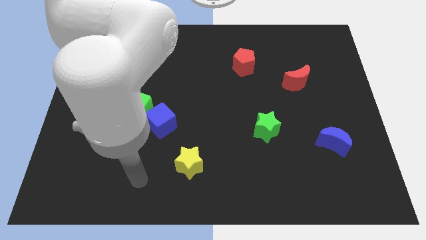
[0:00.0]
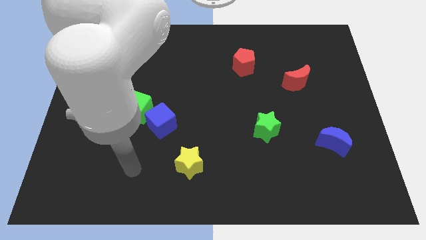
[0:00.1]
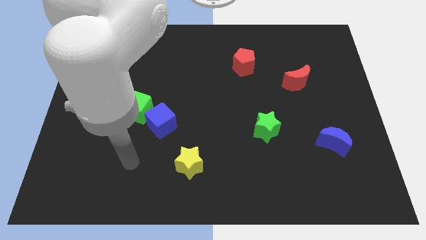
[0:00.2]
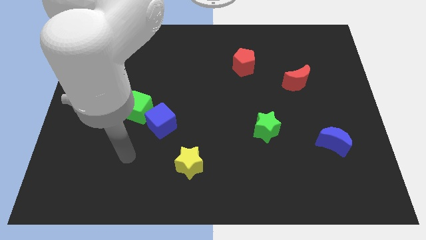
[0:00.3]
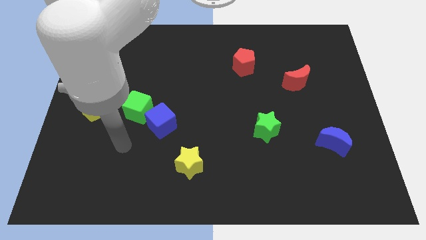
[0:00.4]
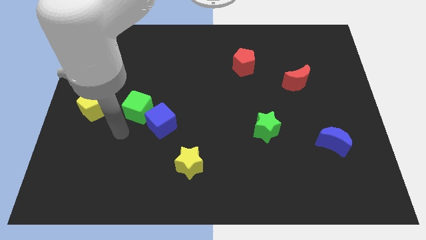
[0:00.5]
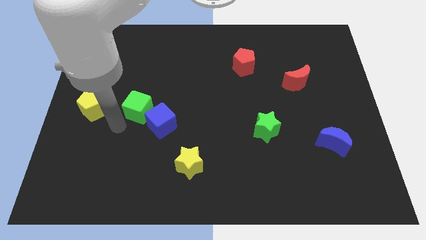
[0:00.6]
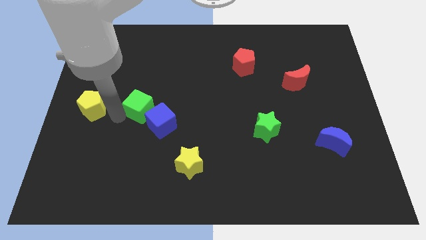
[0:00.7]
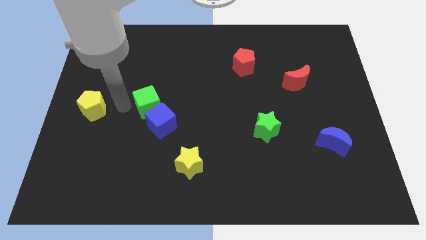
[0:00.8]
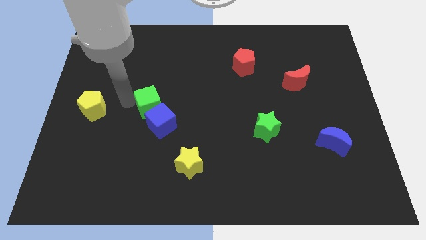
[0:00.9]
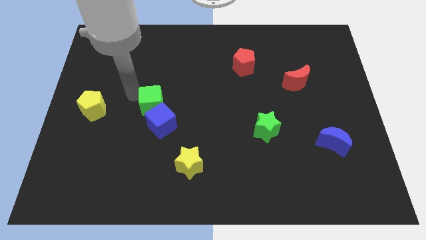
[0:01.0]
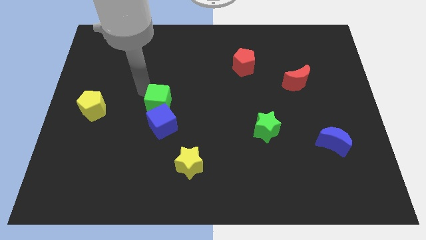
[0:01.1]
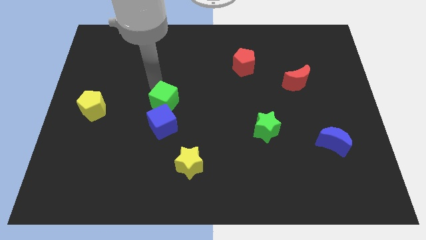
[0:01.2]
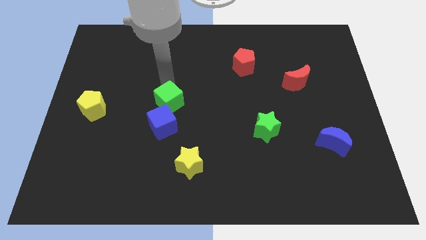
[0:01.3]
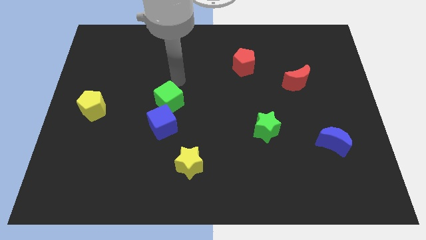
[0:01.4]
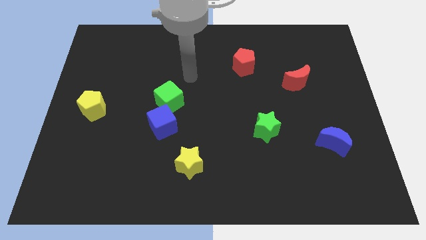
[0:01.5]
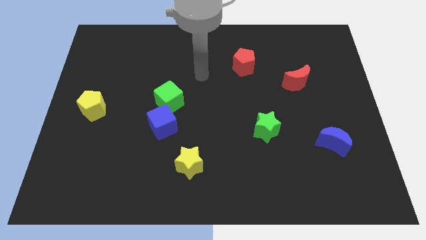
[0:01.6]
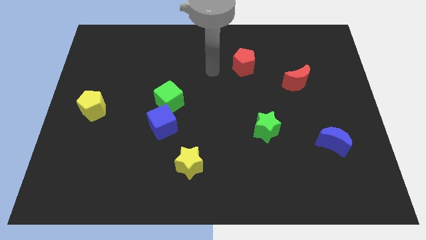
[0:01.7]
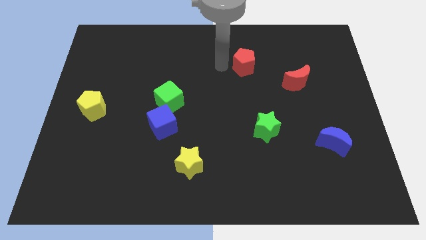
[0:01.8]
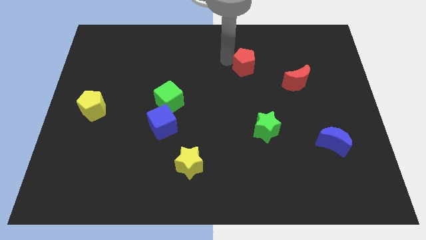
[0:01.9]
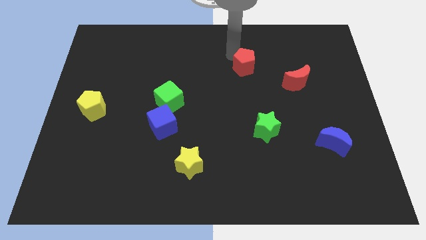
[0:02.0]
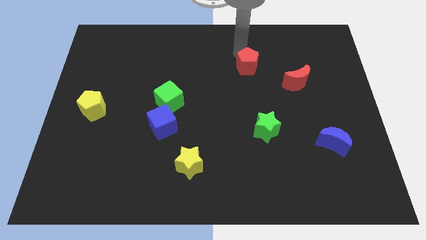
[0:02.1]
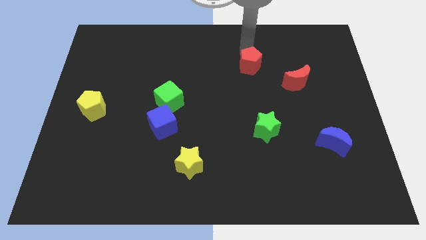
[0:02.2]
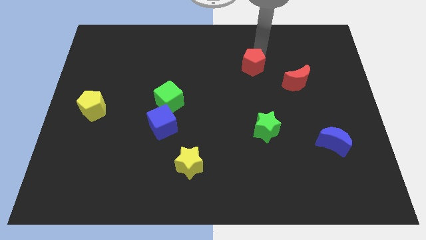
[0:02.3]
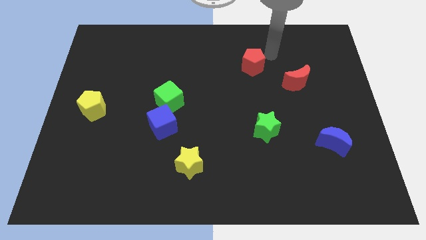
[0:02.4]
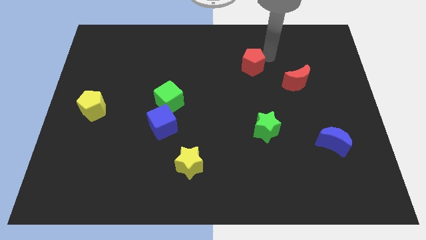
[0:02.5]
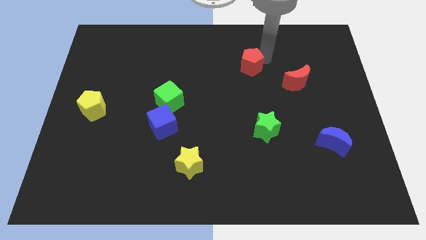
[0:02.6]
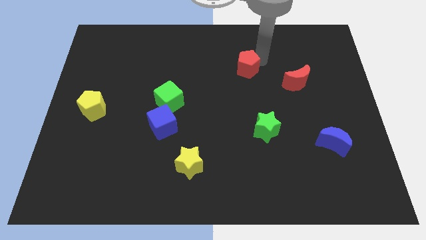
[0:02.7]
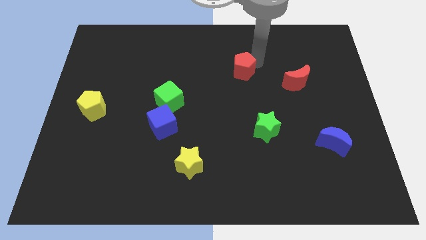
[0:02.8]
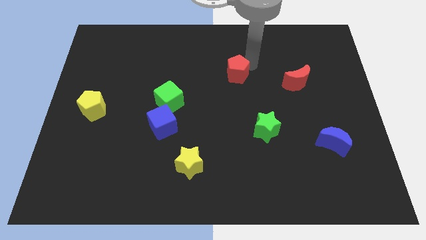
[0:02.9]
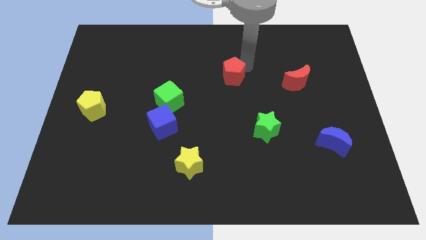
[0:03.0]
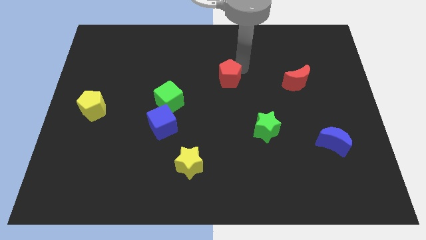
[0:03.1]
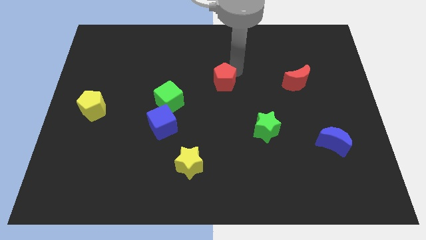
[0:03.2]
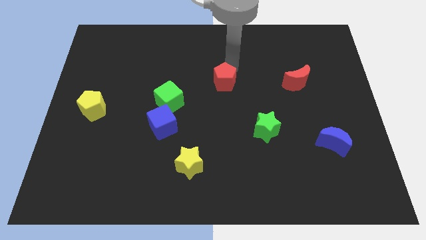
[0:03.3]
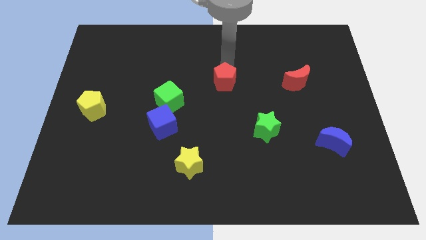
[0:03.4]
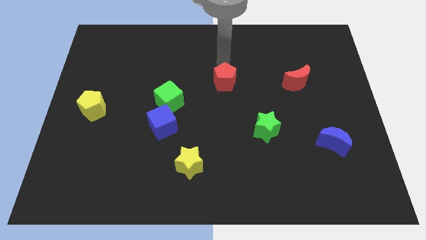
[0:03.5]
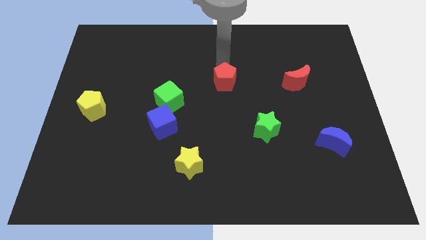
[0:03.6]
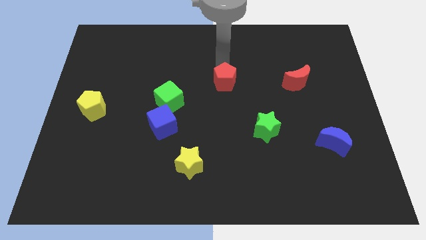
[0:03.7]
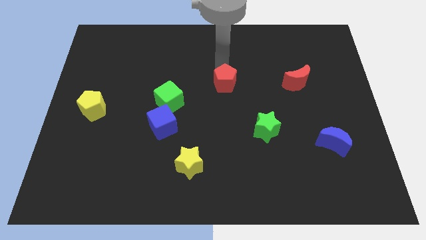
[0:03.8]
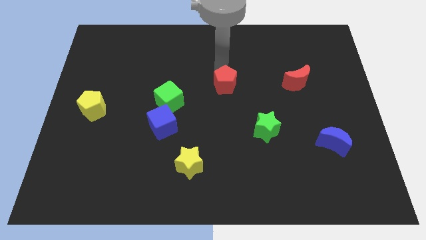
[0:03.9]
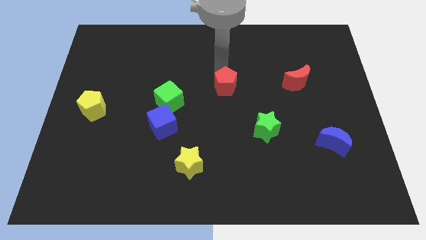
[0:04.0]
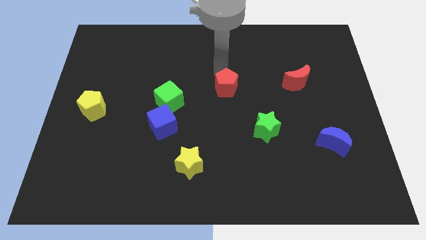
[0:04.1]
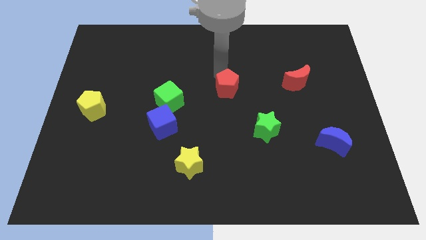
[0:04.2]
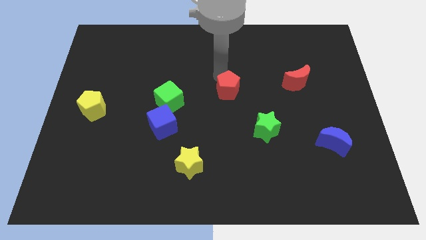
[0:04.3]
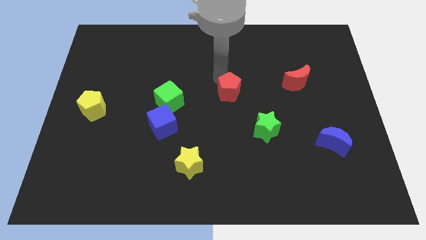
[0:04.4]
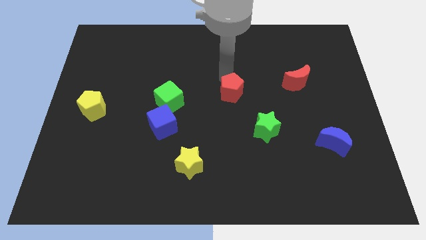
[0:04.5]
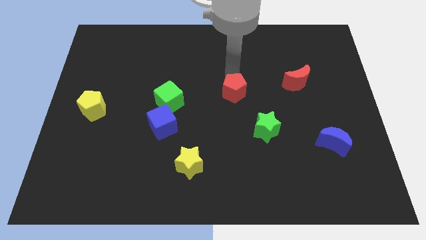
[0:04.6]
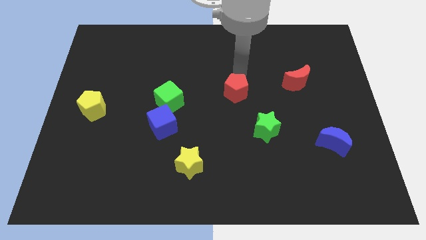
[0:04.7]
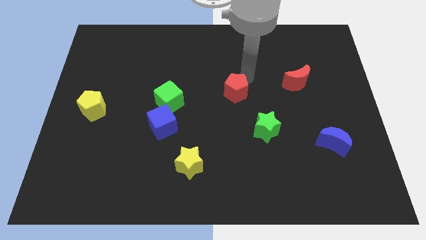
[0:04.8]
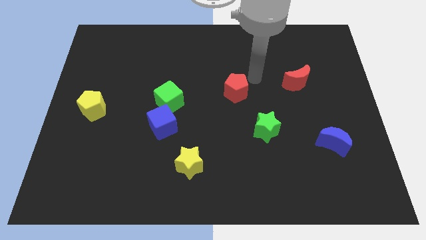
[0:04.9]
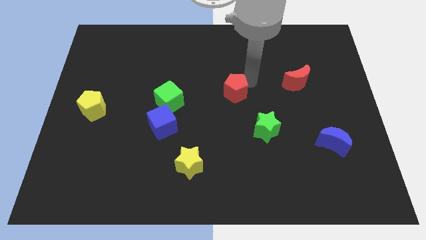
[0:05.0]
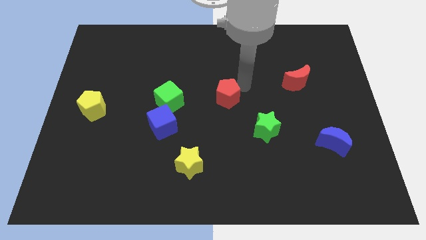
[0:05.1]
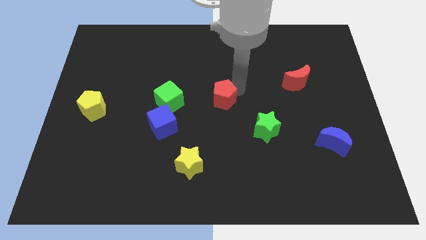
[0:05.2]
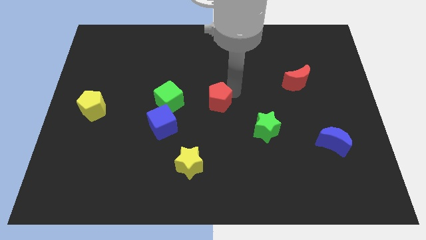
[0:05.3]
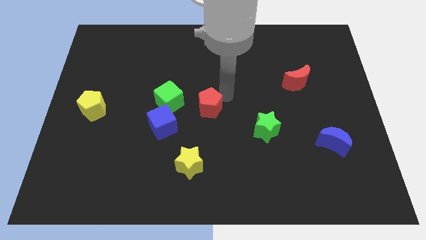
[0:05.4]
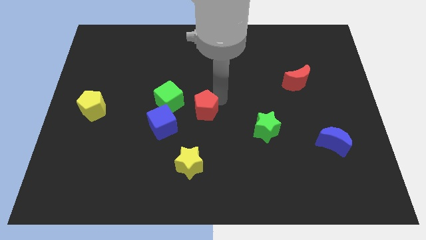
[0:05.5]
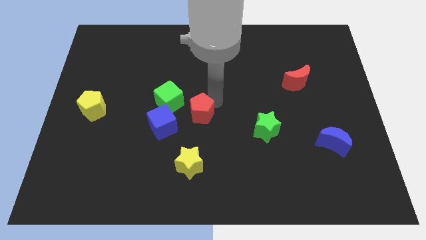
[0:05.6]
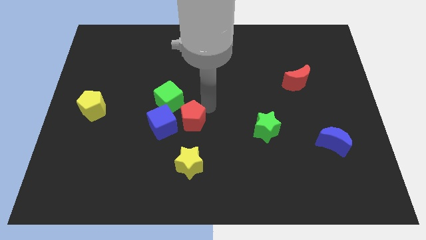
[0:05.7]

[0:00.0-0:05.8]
slide the red pentagon diagonally down and left

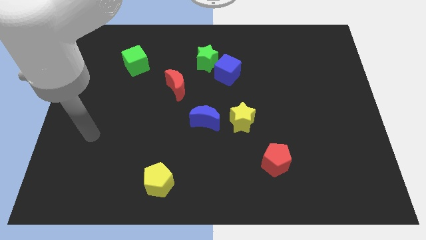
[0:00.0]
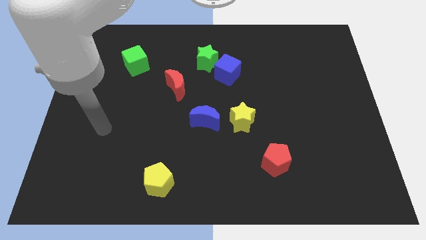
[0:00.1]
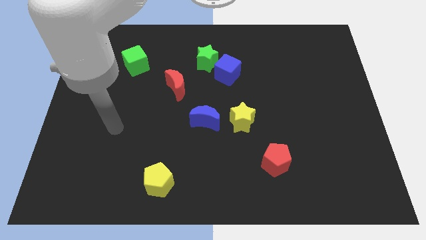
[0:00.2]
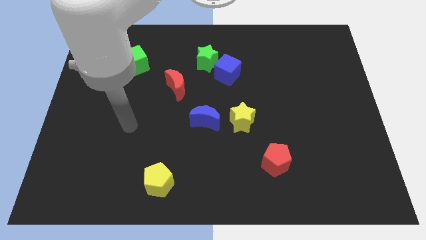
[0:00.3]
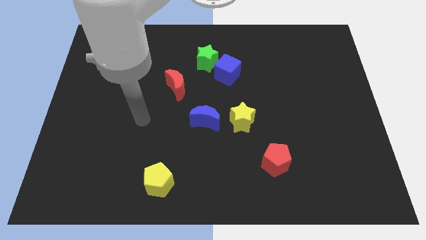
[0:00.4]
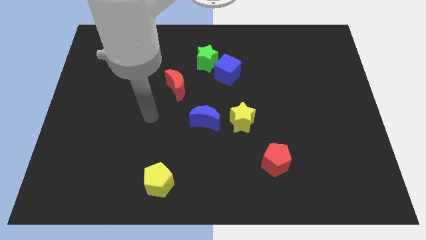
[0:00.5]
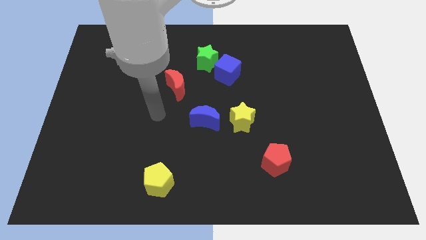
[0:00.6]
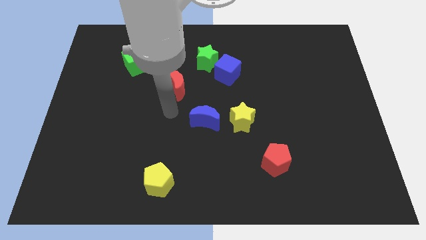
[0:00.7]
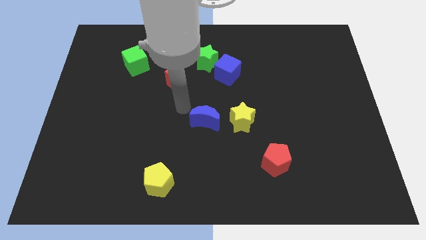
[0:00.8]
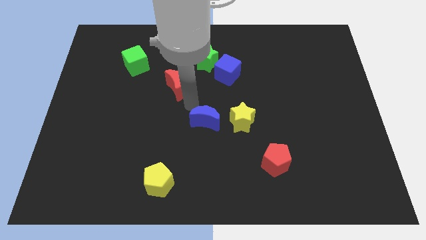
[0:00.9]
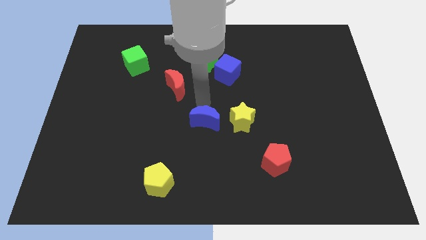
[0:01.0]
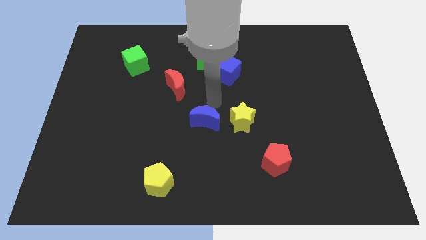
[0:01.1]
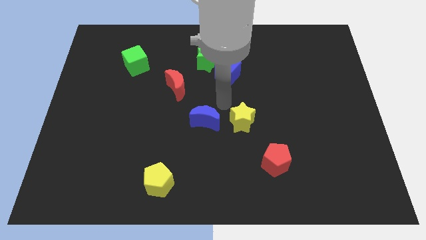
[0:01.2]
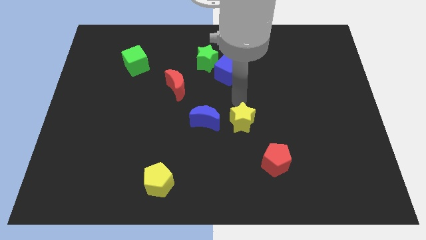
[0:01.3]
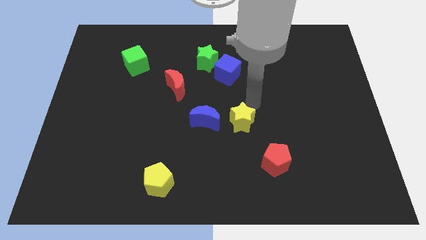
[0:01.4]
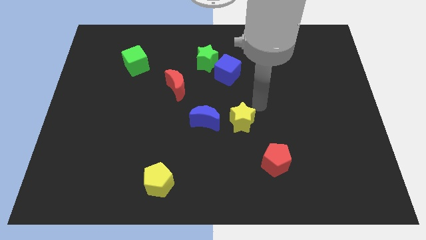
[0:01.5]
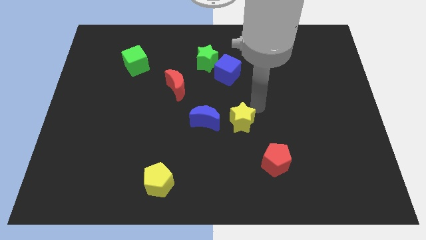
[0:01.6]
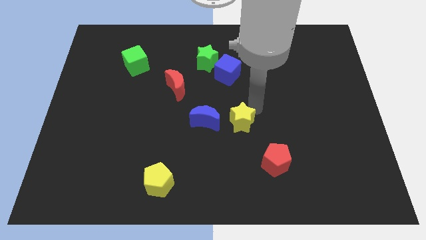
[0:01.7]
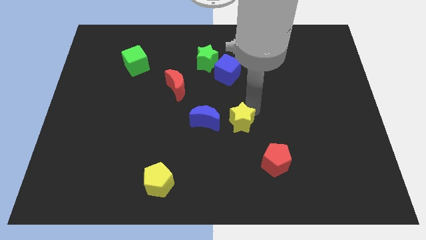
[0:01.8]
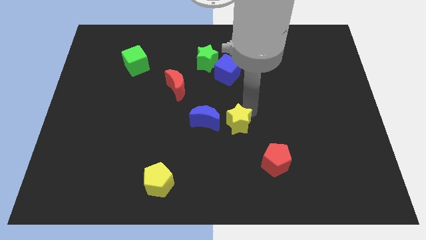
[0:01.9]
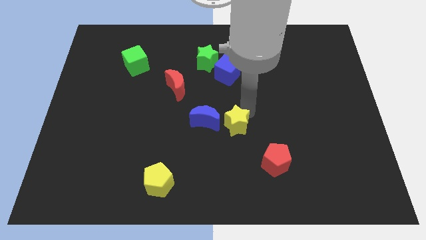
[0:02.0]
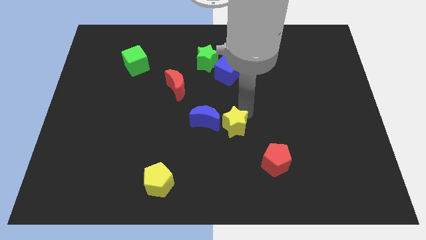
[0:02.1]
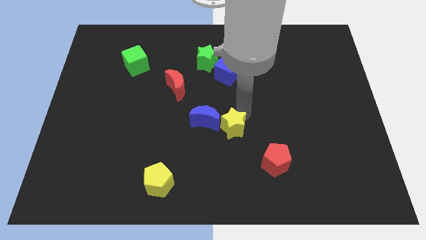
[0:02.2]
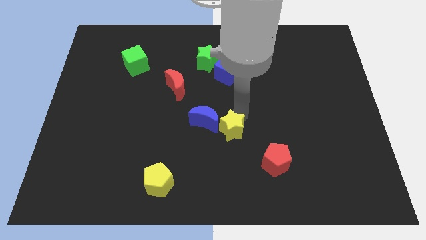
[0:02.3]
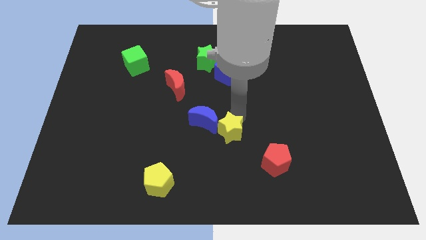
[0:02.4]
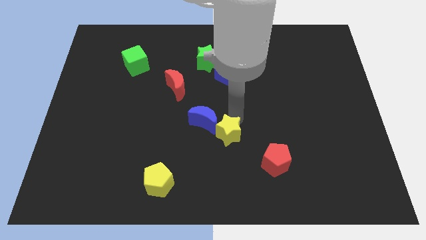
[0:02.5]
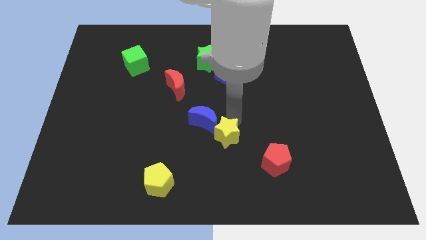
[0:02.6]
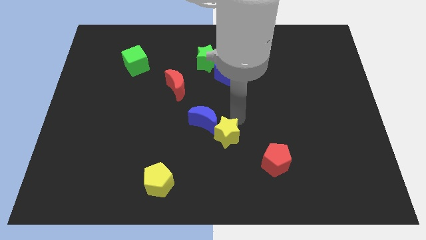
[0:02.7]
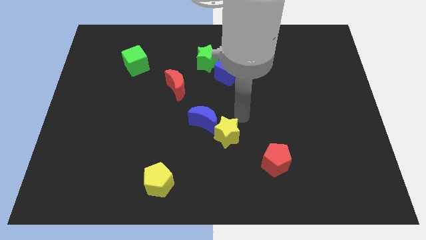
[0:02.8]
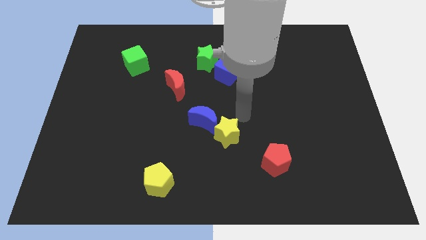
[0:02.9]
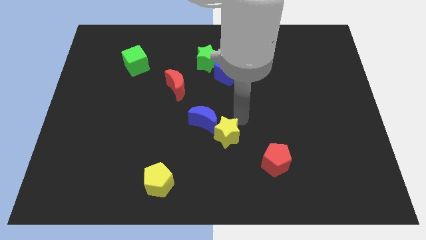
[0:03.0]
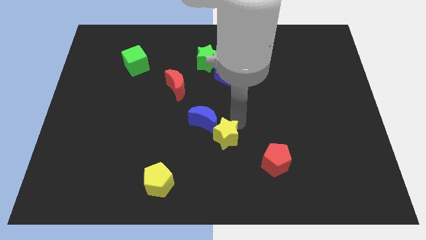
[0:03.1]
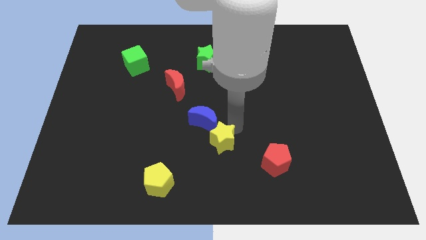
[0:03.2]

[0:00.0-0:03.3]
slide the yellow star downwards and left somewhat
